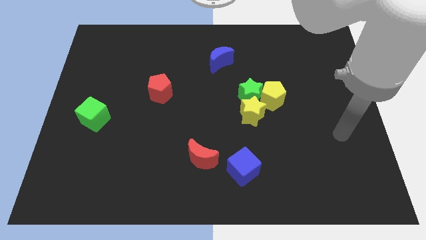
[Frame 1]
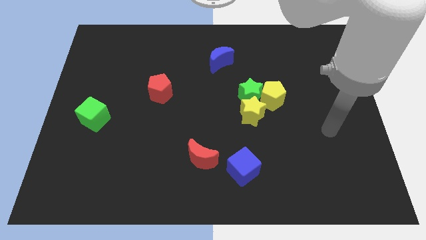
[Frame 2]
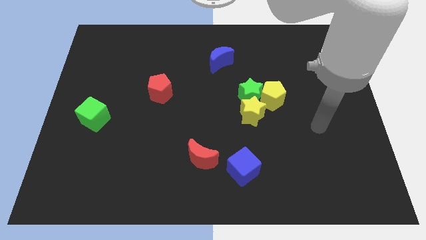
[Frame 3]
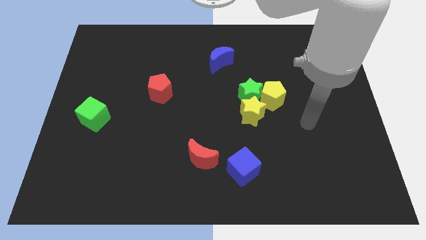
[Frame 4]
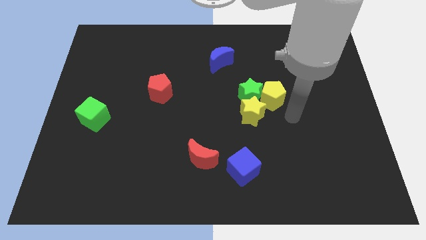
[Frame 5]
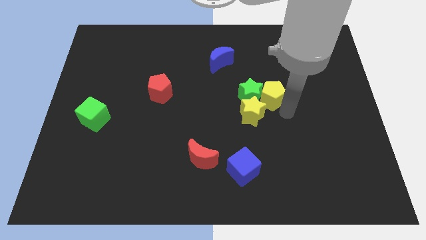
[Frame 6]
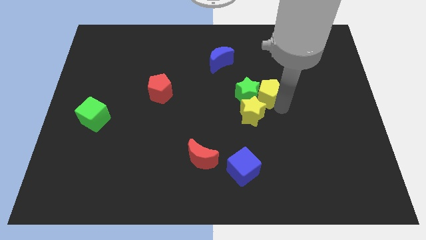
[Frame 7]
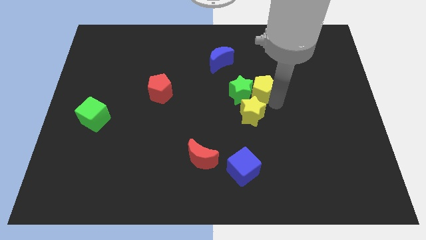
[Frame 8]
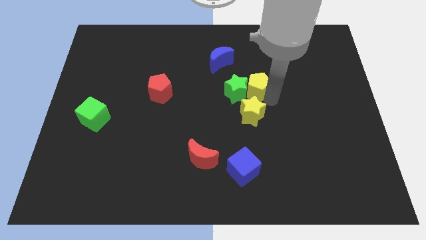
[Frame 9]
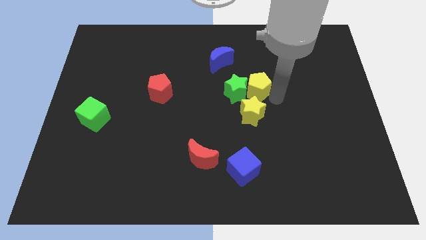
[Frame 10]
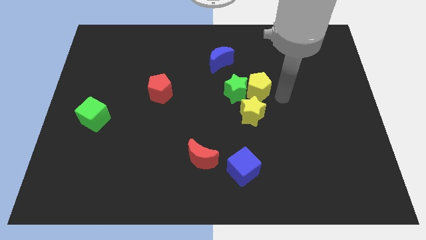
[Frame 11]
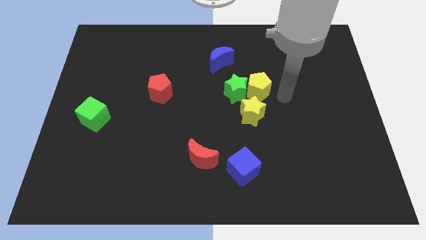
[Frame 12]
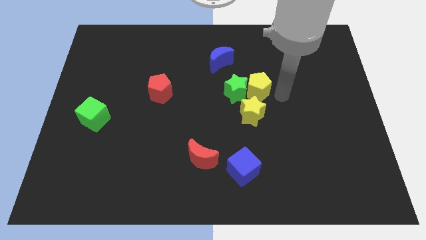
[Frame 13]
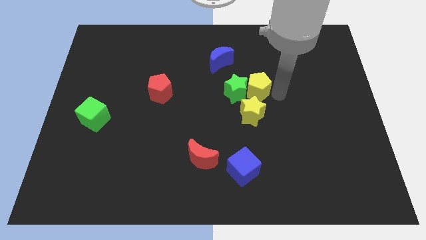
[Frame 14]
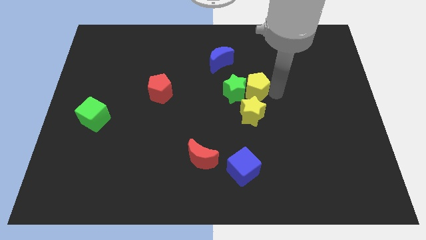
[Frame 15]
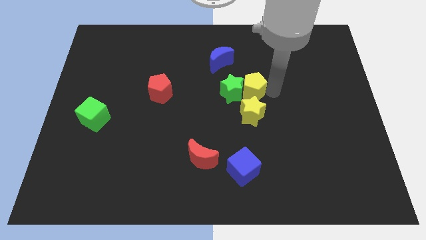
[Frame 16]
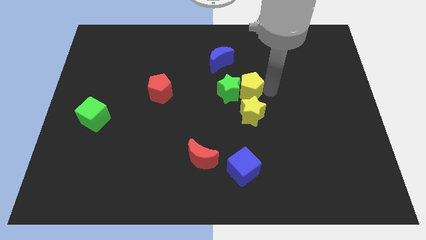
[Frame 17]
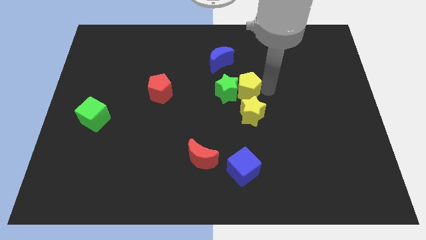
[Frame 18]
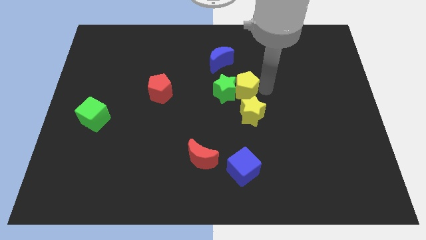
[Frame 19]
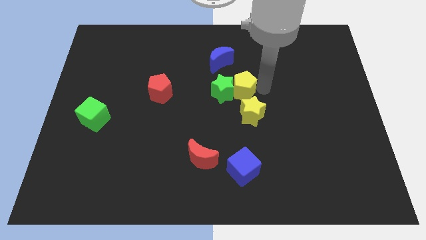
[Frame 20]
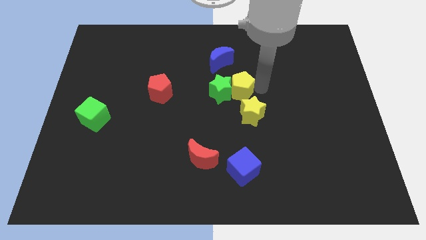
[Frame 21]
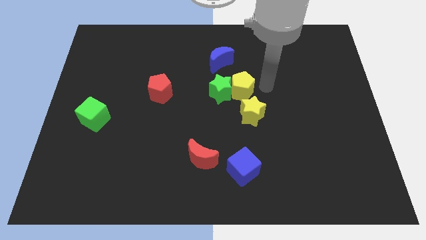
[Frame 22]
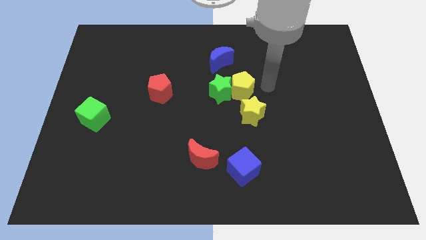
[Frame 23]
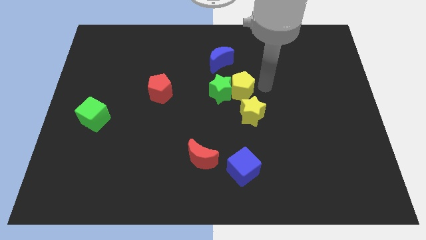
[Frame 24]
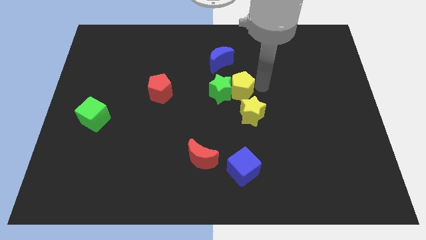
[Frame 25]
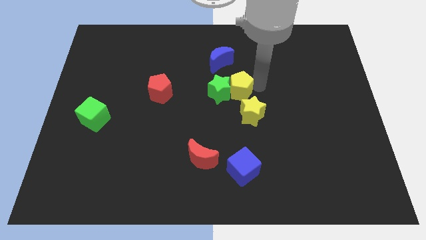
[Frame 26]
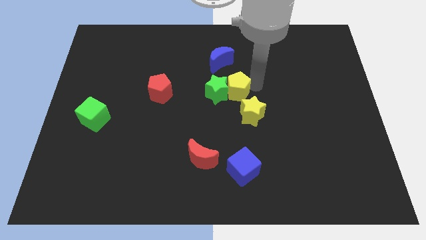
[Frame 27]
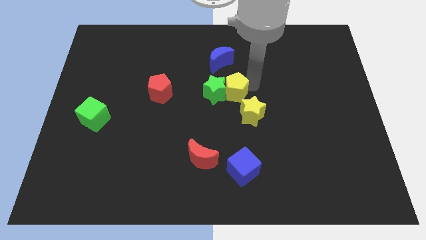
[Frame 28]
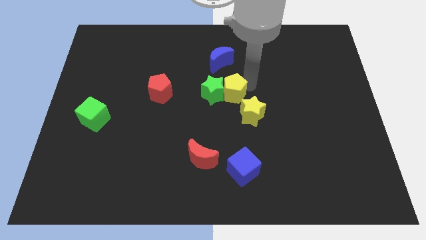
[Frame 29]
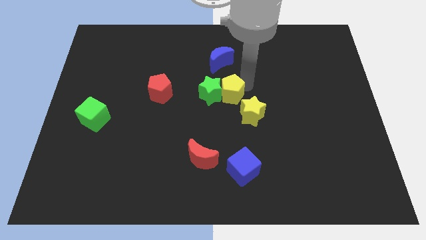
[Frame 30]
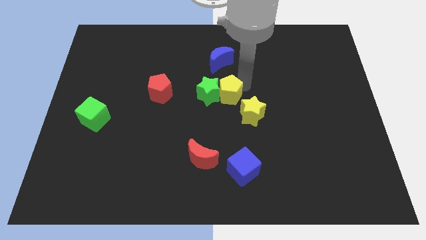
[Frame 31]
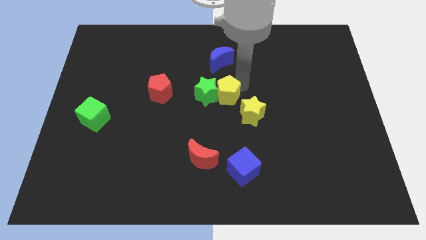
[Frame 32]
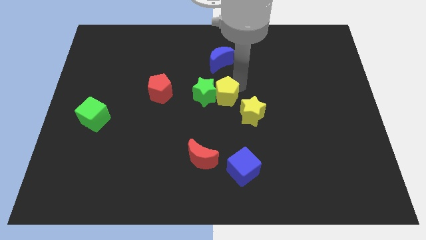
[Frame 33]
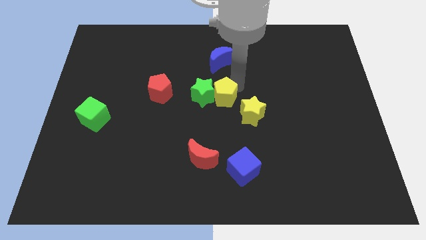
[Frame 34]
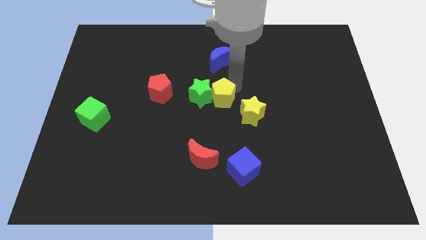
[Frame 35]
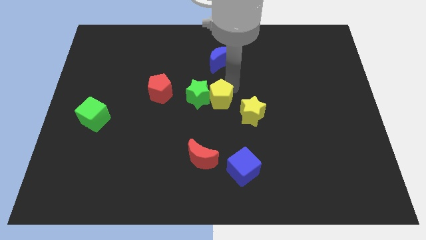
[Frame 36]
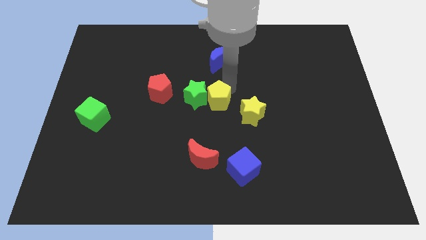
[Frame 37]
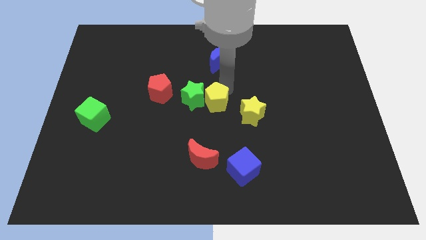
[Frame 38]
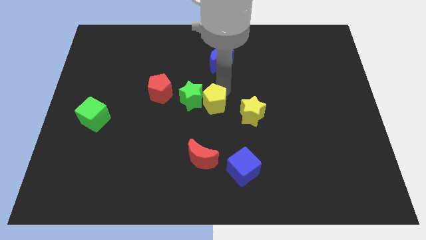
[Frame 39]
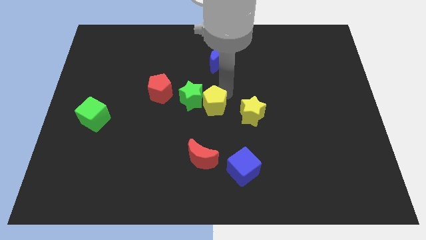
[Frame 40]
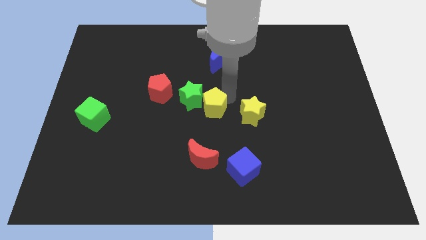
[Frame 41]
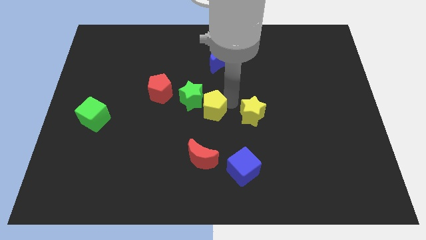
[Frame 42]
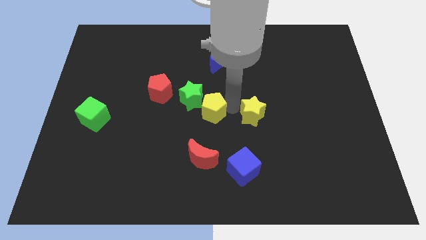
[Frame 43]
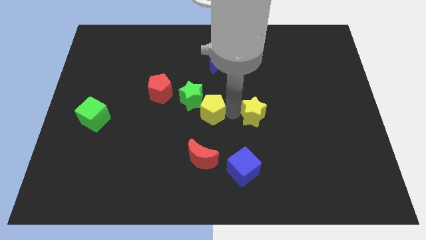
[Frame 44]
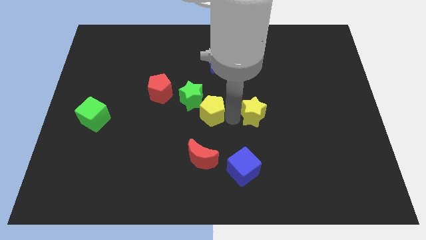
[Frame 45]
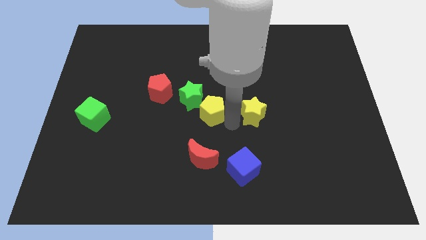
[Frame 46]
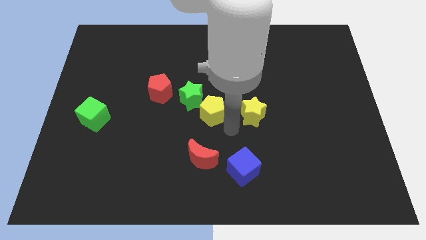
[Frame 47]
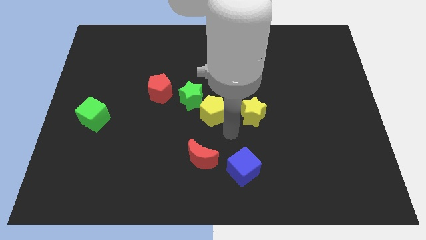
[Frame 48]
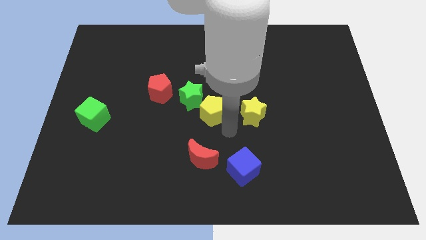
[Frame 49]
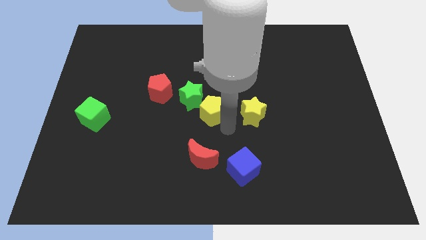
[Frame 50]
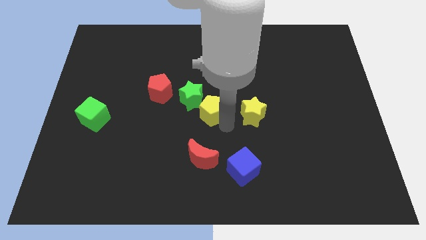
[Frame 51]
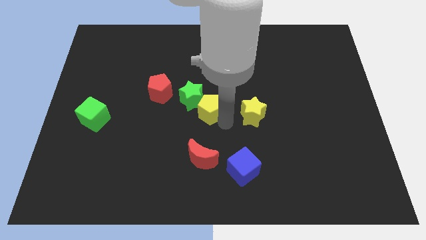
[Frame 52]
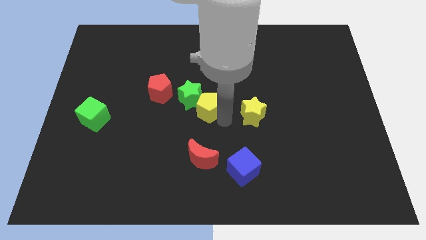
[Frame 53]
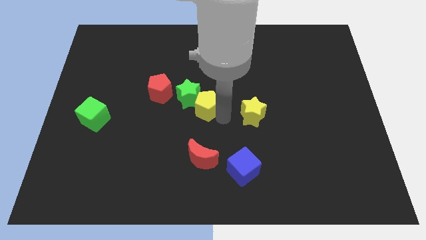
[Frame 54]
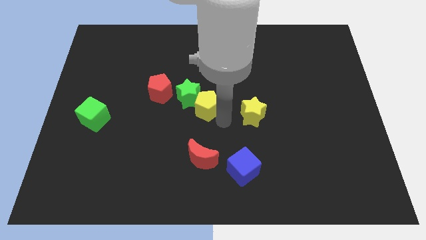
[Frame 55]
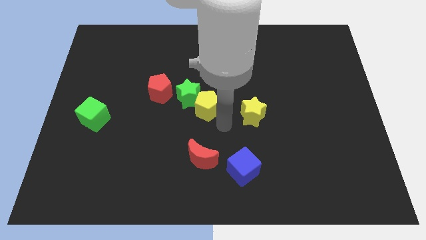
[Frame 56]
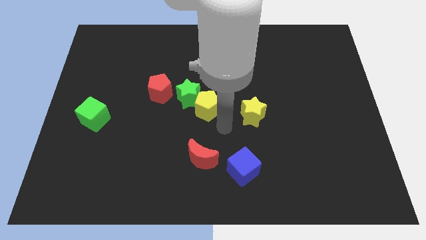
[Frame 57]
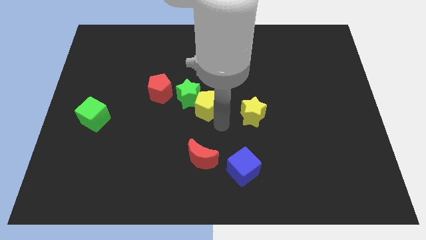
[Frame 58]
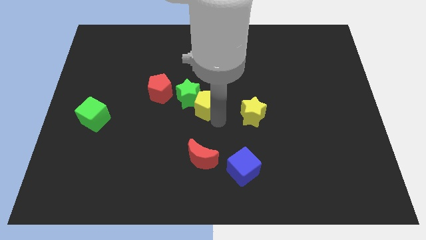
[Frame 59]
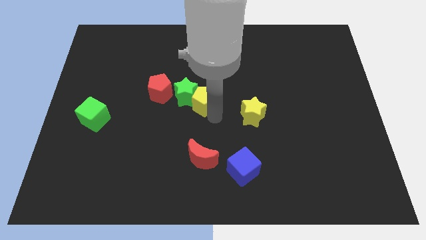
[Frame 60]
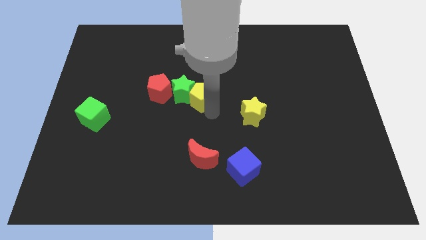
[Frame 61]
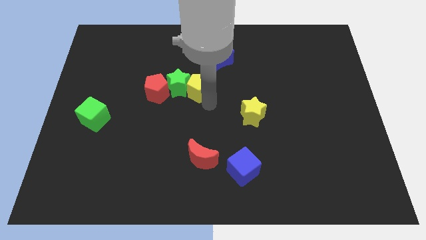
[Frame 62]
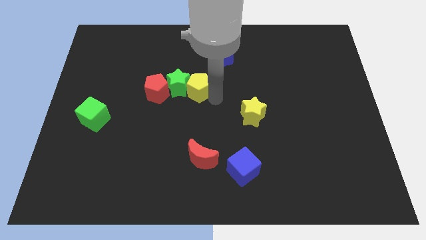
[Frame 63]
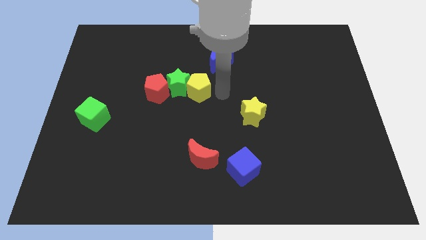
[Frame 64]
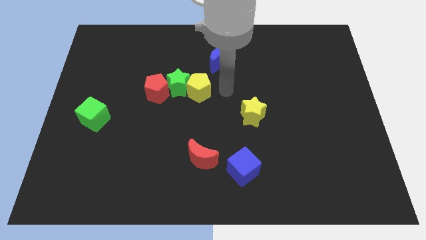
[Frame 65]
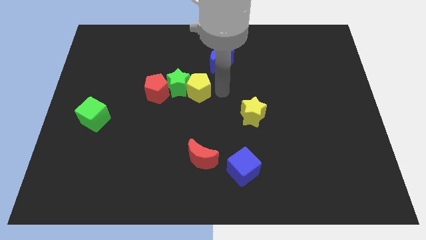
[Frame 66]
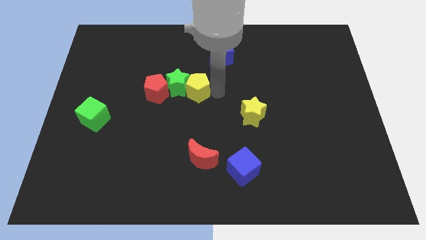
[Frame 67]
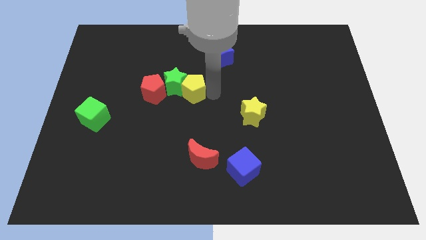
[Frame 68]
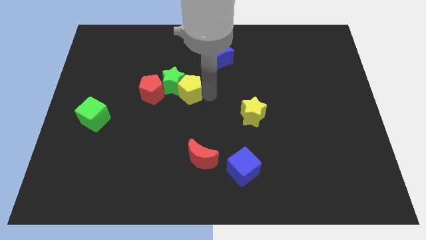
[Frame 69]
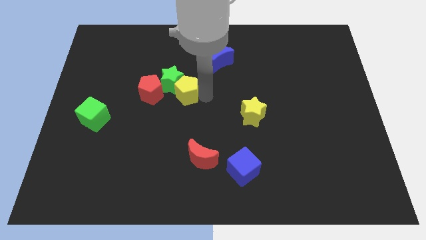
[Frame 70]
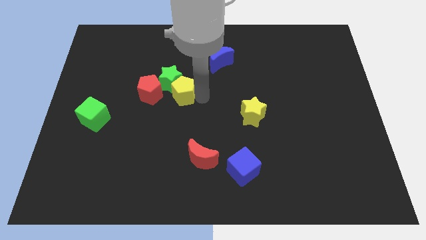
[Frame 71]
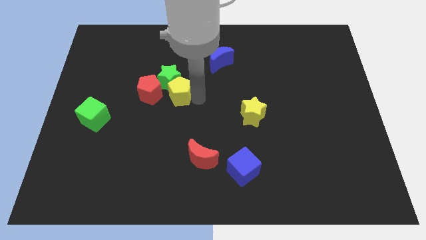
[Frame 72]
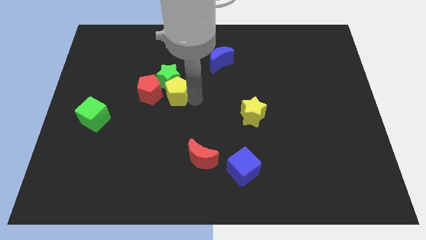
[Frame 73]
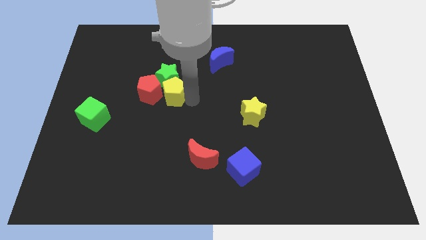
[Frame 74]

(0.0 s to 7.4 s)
move the yellow pentagon close to the red pentagon

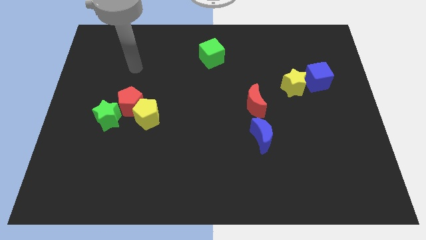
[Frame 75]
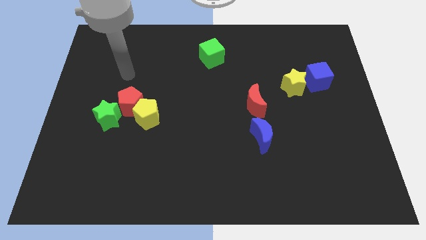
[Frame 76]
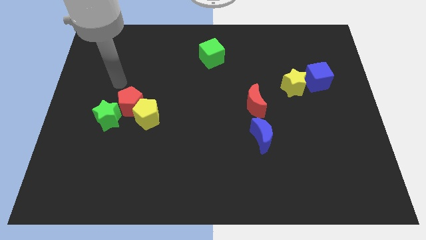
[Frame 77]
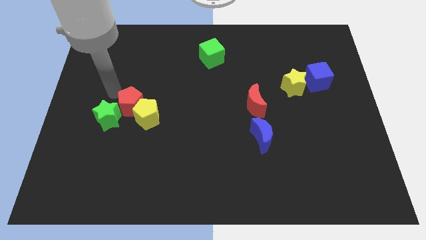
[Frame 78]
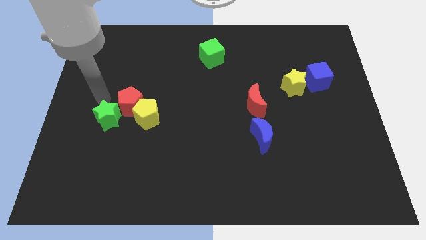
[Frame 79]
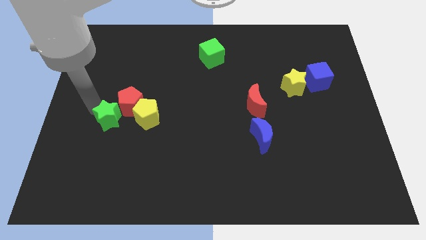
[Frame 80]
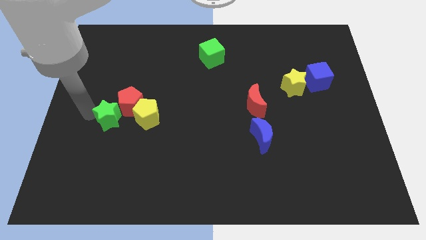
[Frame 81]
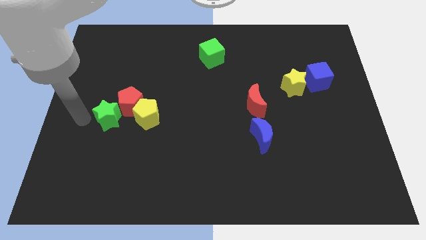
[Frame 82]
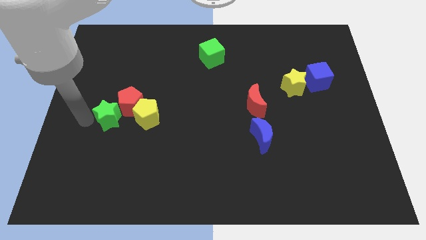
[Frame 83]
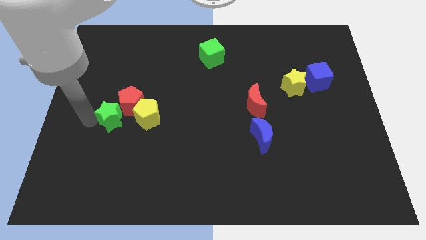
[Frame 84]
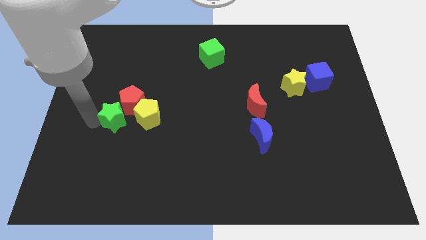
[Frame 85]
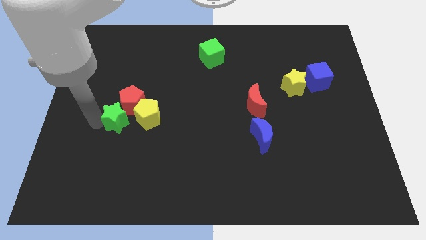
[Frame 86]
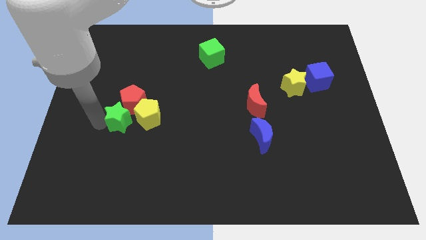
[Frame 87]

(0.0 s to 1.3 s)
put the green star next to the yellow pentagon
